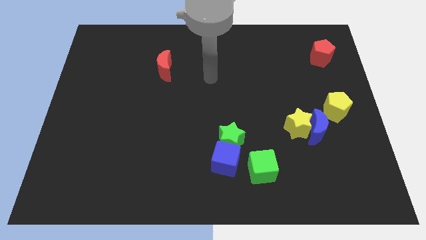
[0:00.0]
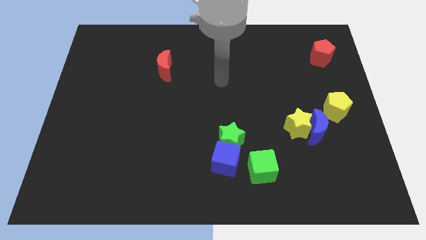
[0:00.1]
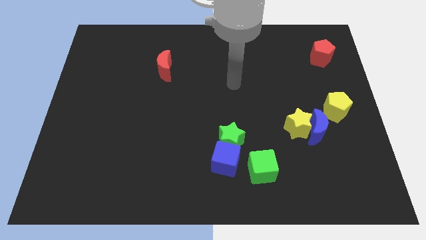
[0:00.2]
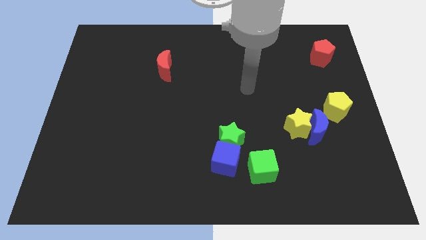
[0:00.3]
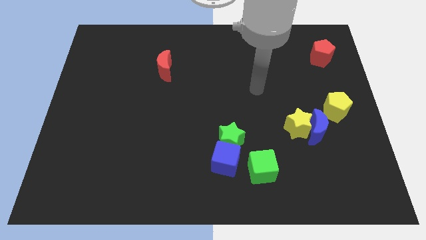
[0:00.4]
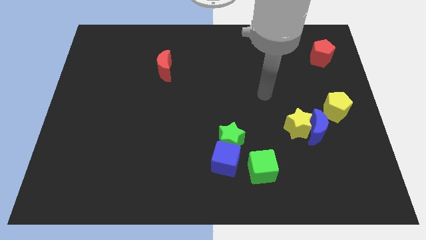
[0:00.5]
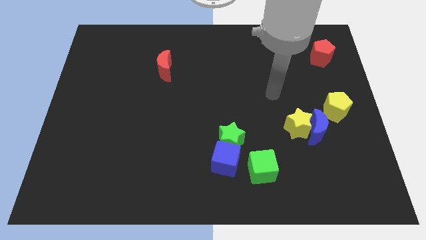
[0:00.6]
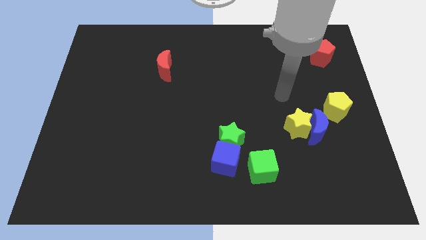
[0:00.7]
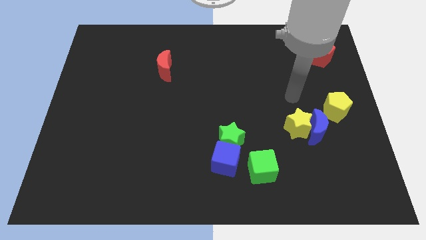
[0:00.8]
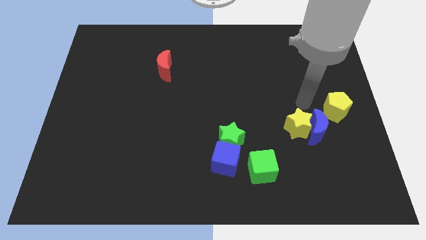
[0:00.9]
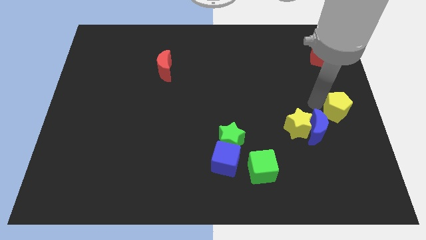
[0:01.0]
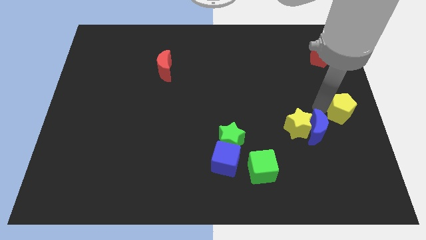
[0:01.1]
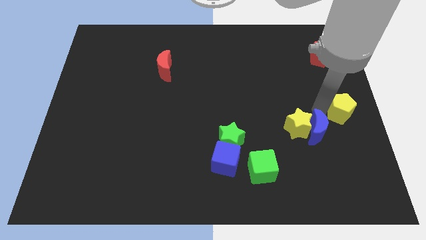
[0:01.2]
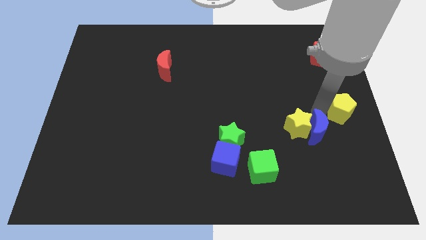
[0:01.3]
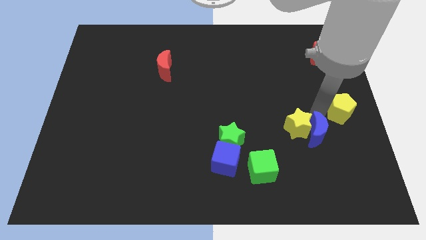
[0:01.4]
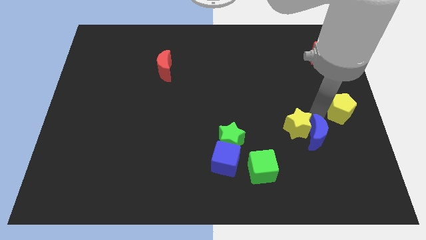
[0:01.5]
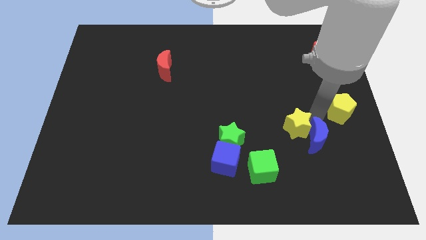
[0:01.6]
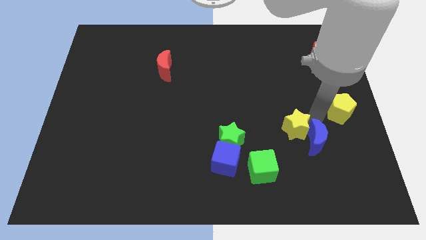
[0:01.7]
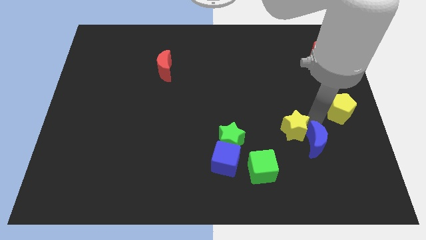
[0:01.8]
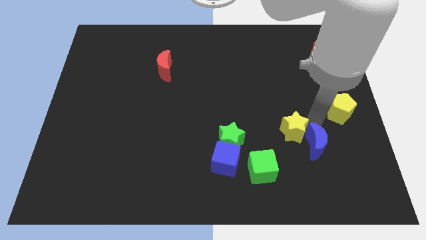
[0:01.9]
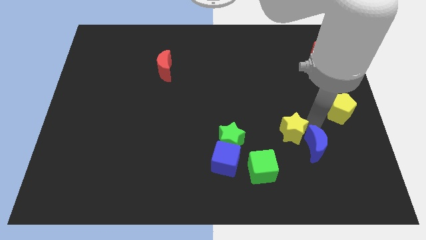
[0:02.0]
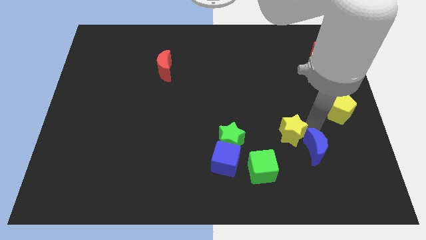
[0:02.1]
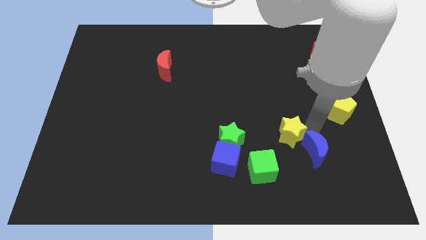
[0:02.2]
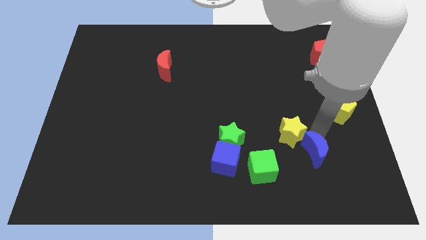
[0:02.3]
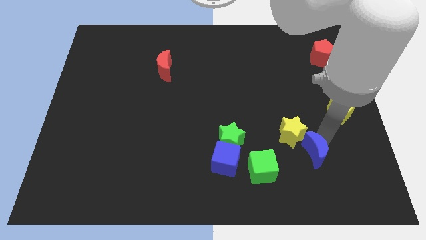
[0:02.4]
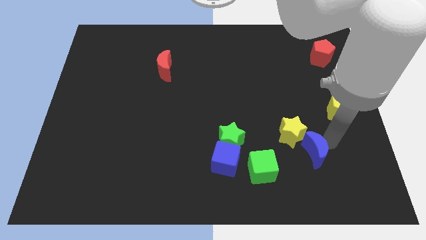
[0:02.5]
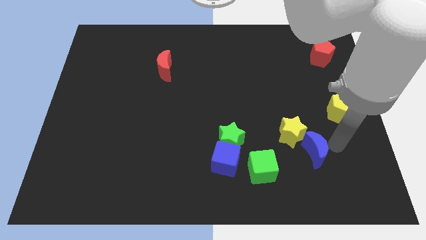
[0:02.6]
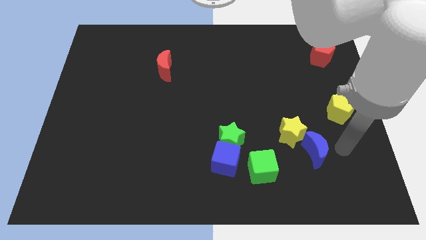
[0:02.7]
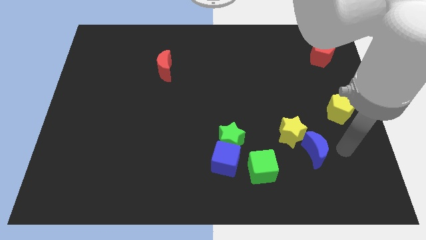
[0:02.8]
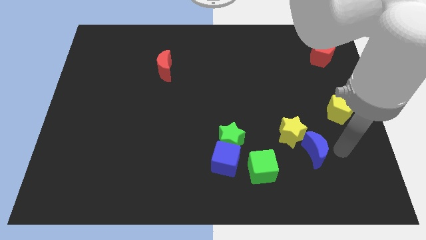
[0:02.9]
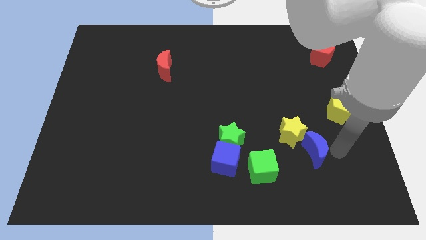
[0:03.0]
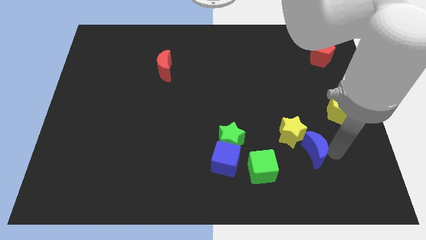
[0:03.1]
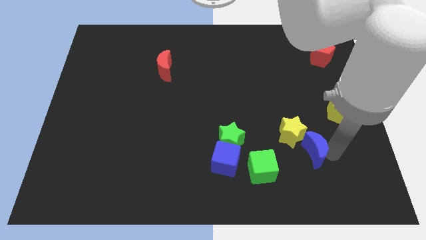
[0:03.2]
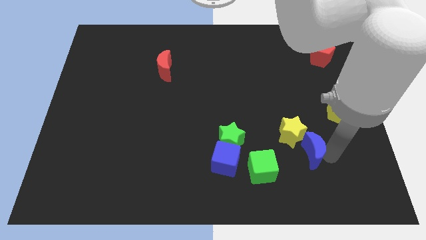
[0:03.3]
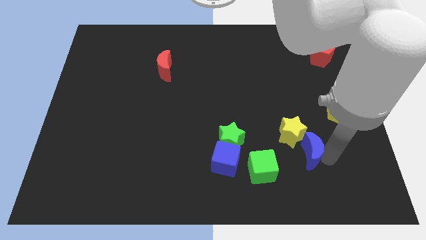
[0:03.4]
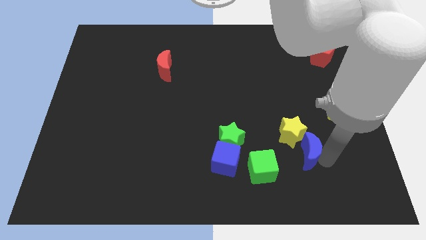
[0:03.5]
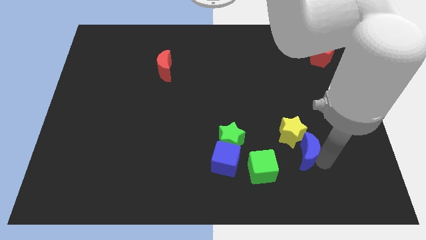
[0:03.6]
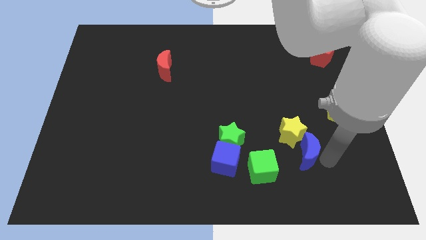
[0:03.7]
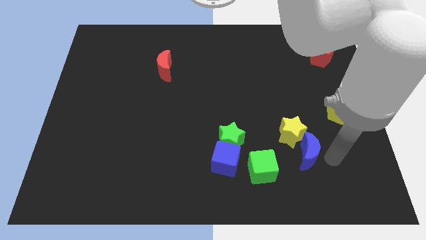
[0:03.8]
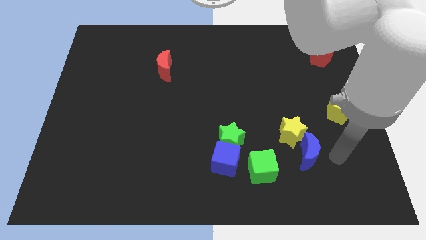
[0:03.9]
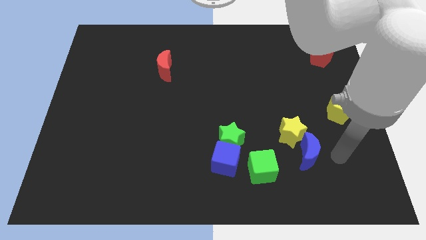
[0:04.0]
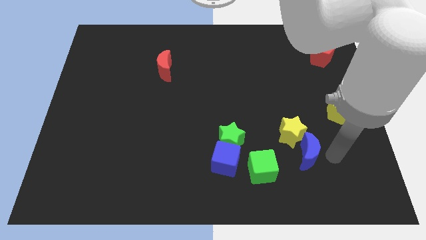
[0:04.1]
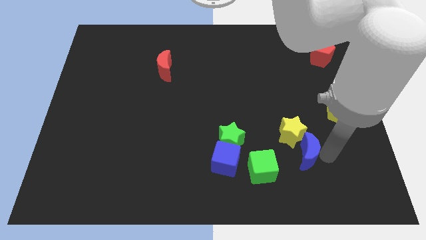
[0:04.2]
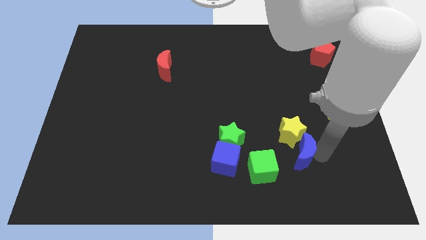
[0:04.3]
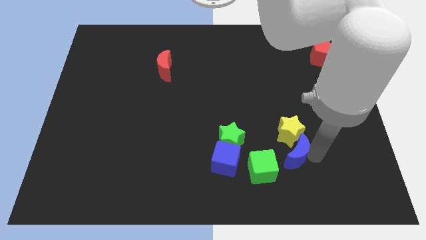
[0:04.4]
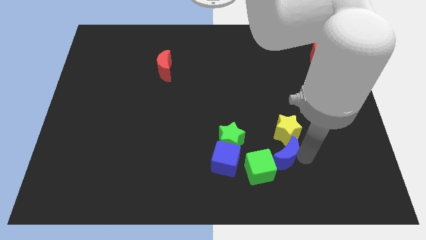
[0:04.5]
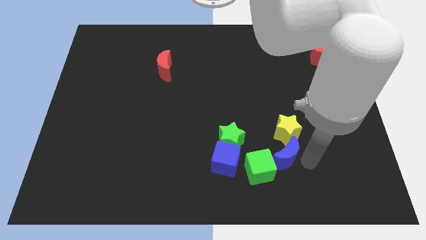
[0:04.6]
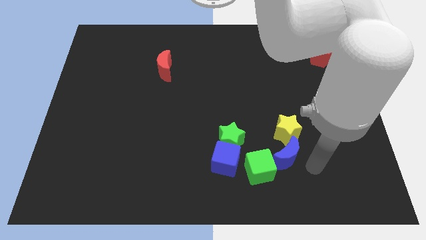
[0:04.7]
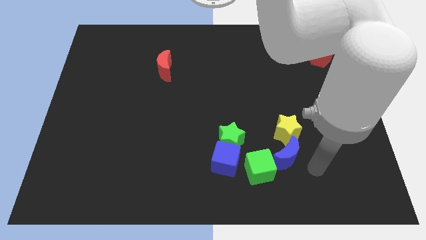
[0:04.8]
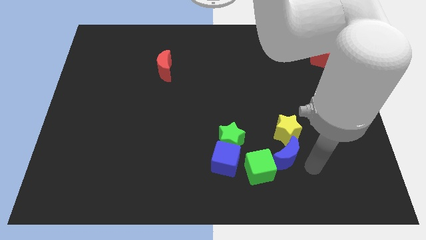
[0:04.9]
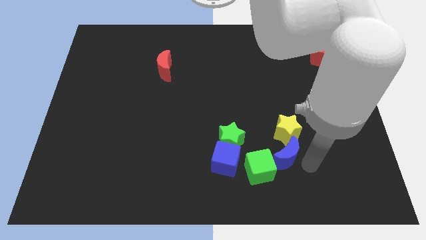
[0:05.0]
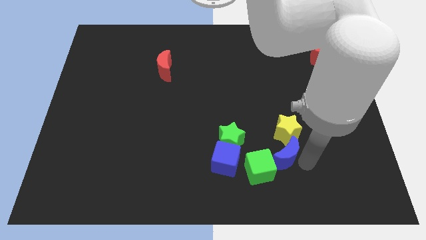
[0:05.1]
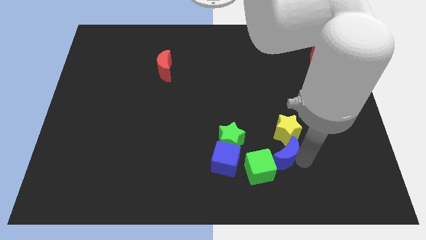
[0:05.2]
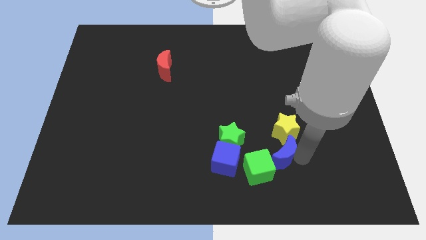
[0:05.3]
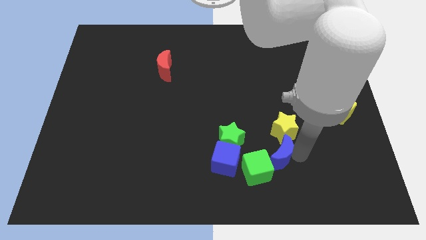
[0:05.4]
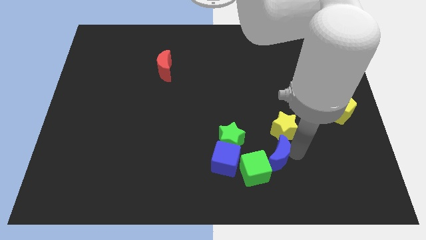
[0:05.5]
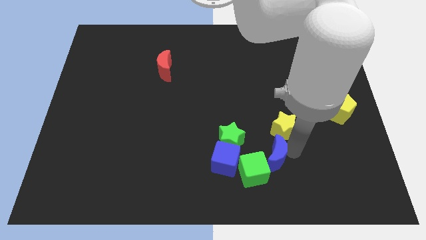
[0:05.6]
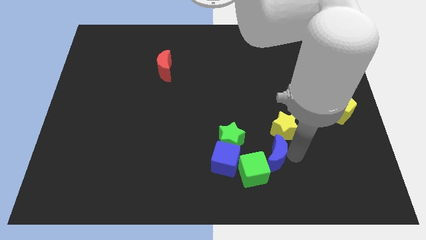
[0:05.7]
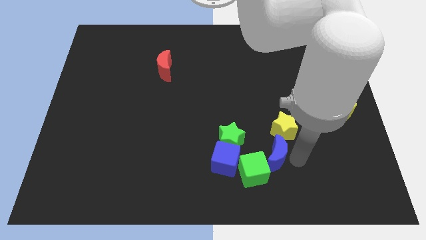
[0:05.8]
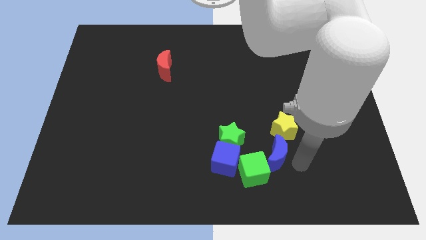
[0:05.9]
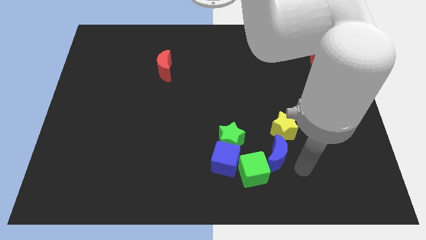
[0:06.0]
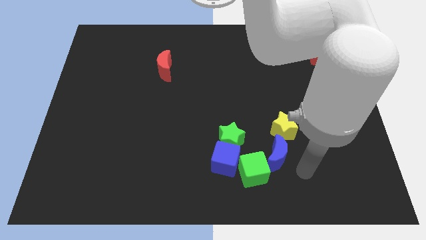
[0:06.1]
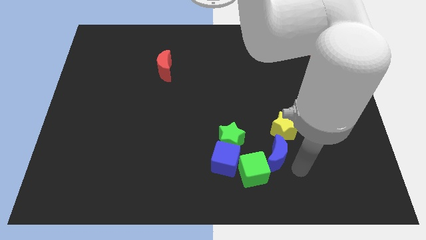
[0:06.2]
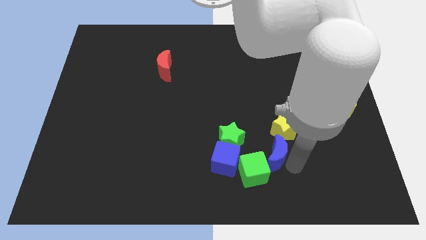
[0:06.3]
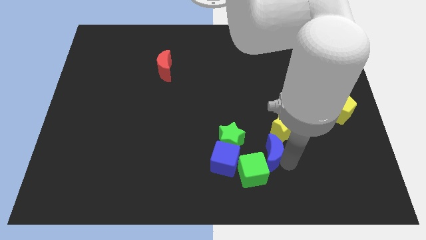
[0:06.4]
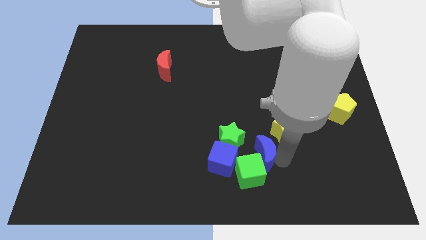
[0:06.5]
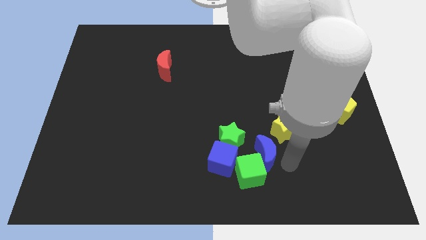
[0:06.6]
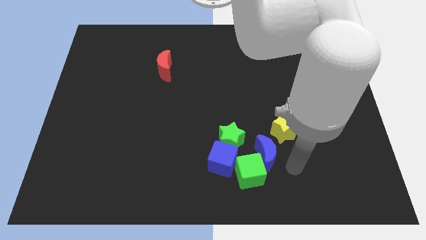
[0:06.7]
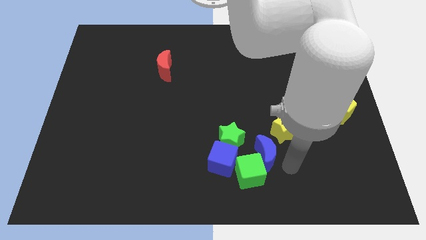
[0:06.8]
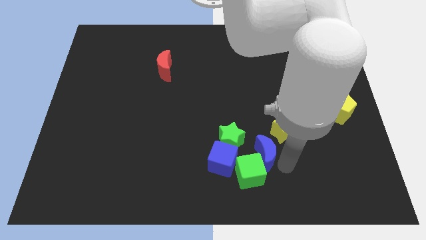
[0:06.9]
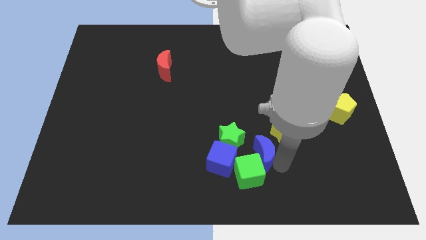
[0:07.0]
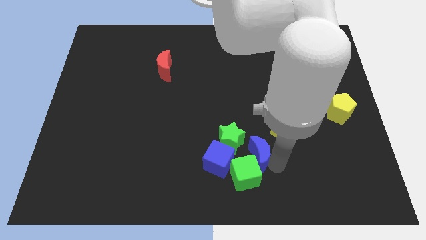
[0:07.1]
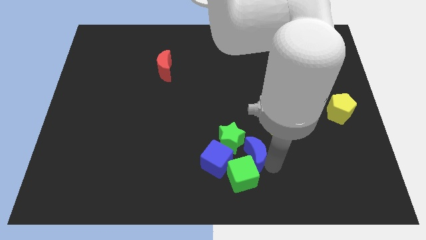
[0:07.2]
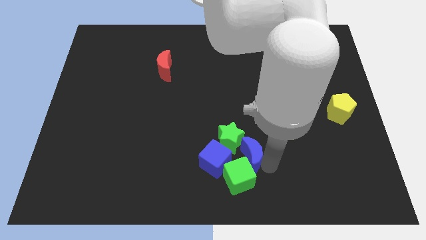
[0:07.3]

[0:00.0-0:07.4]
push the blue moon next to the green star
